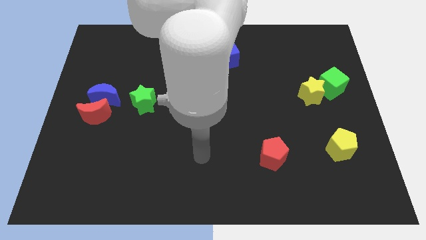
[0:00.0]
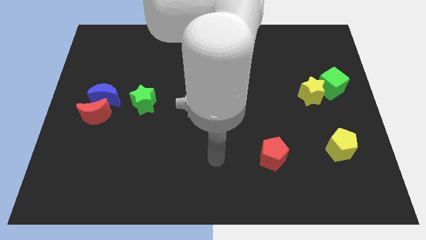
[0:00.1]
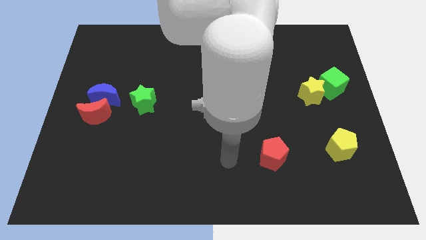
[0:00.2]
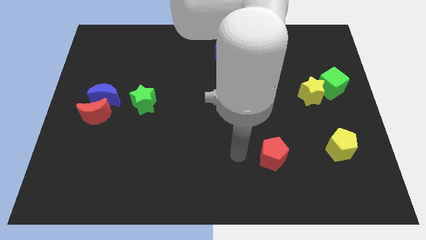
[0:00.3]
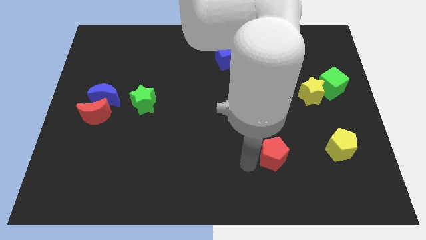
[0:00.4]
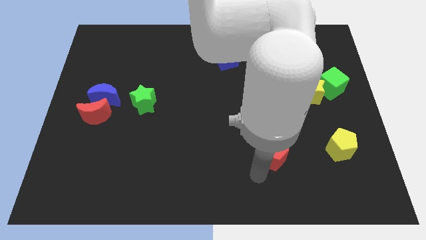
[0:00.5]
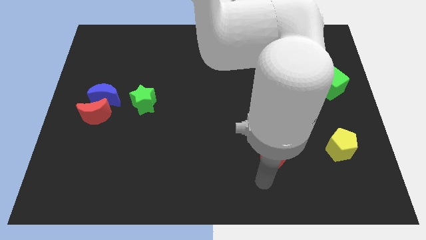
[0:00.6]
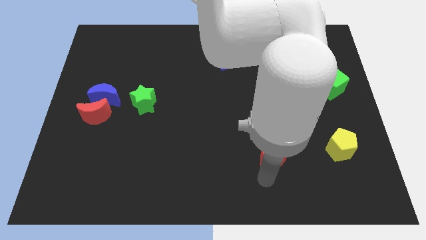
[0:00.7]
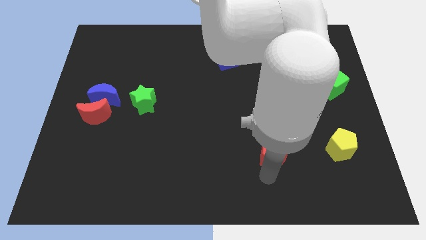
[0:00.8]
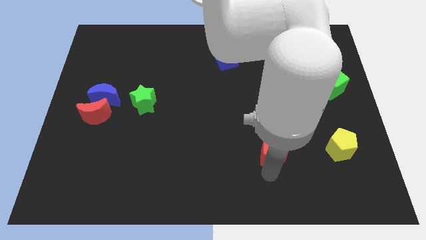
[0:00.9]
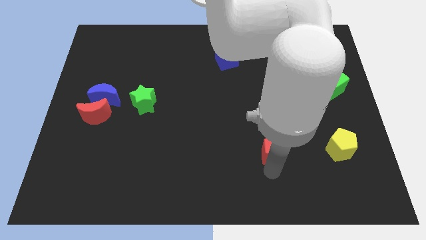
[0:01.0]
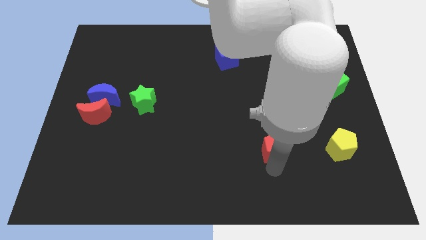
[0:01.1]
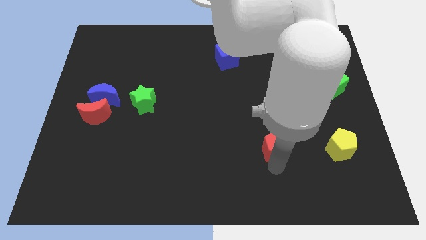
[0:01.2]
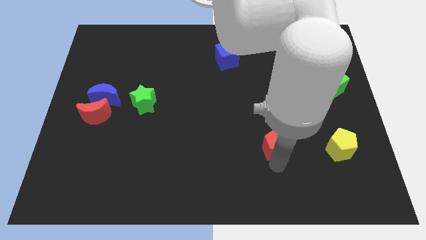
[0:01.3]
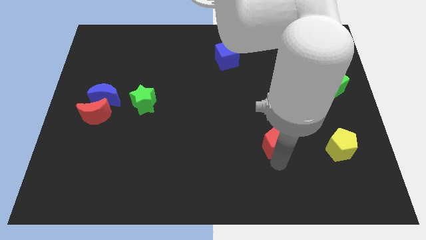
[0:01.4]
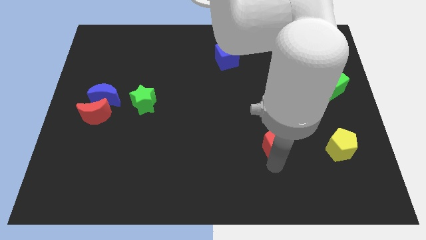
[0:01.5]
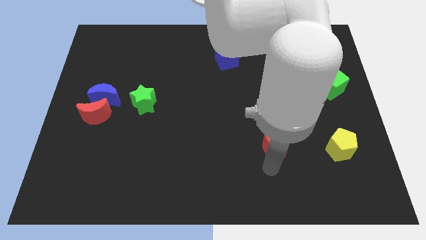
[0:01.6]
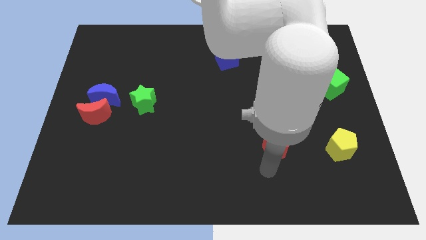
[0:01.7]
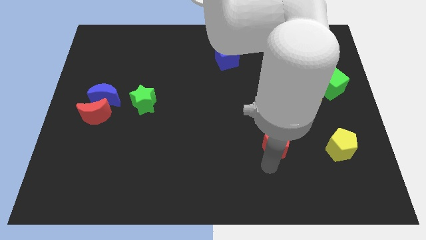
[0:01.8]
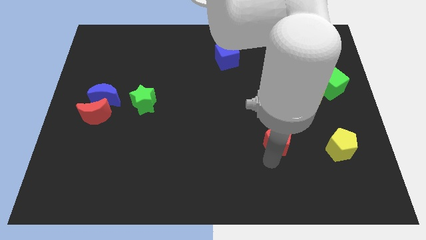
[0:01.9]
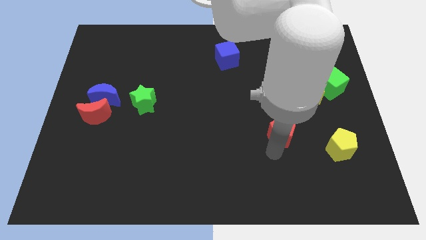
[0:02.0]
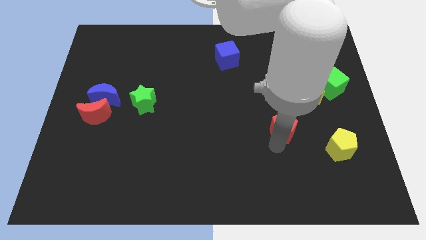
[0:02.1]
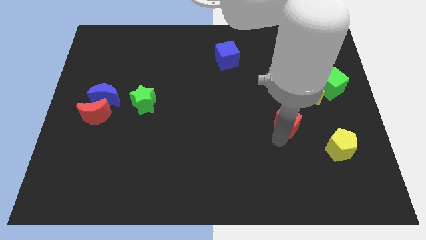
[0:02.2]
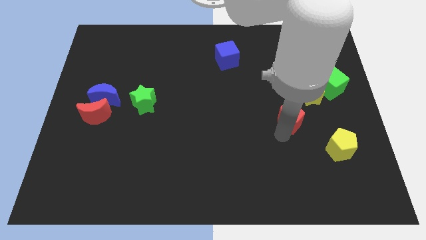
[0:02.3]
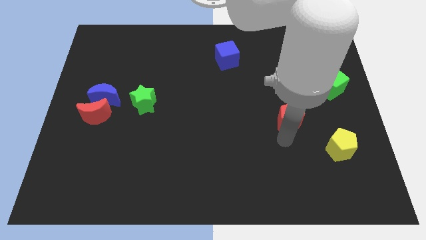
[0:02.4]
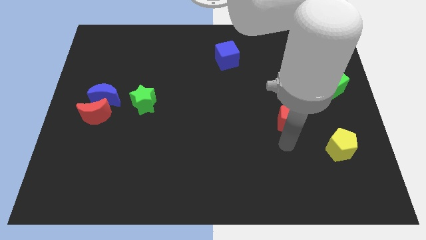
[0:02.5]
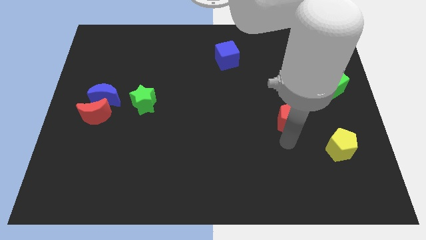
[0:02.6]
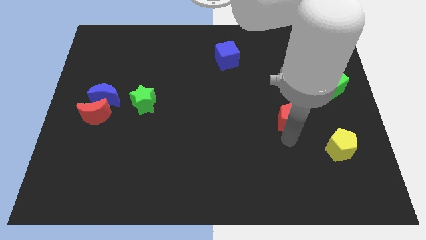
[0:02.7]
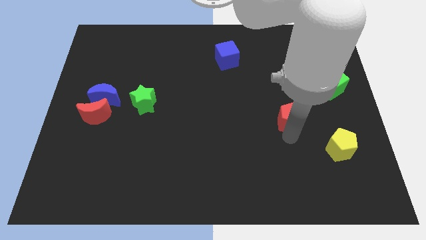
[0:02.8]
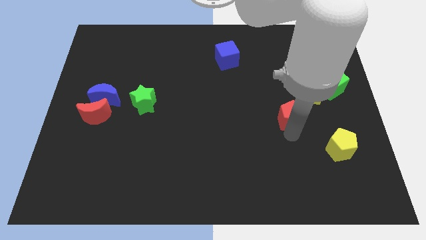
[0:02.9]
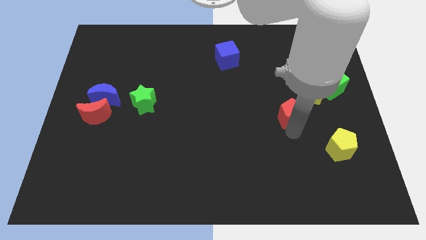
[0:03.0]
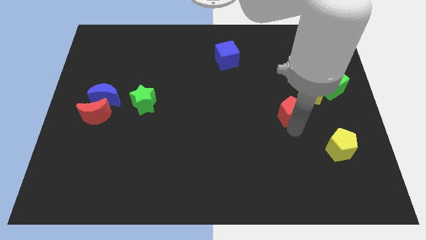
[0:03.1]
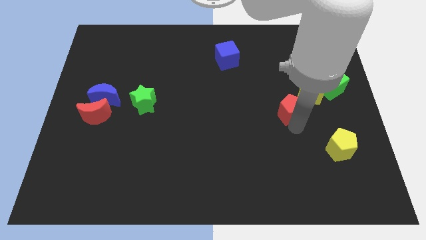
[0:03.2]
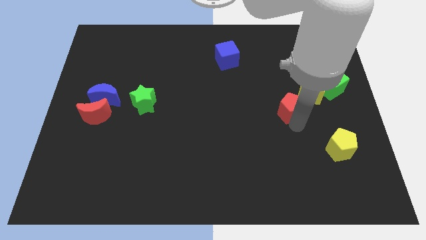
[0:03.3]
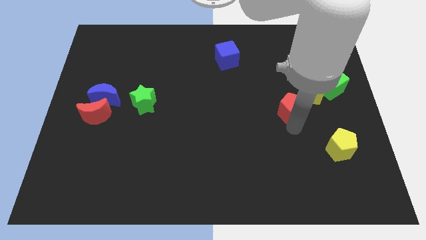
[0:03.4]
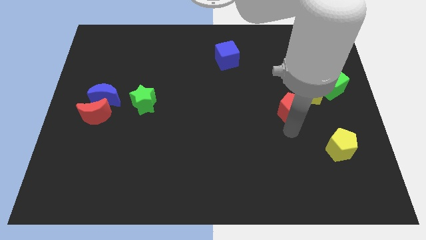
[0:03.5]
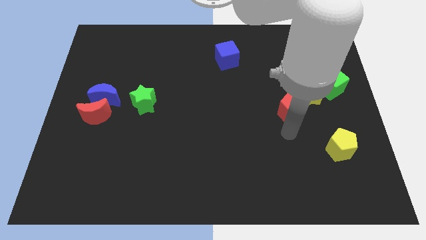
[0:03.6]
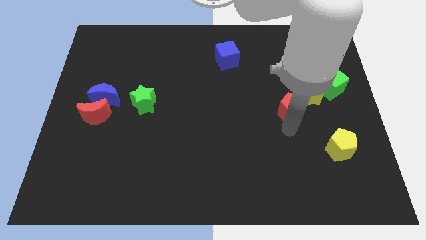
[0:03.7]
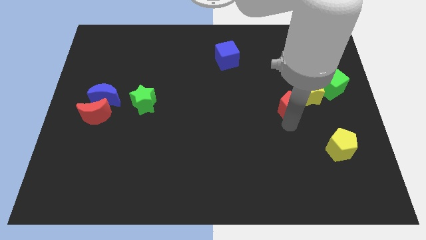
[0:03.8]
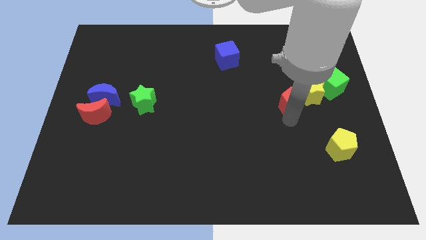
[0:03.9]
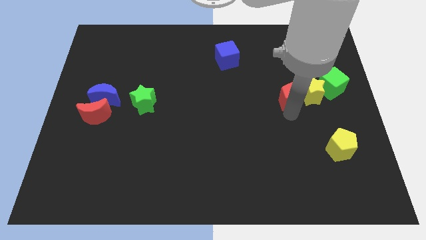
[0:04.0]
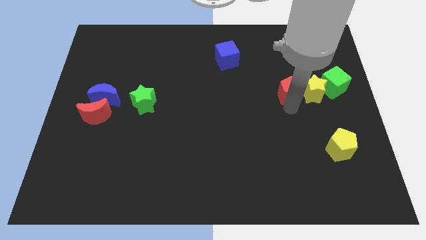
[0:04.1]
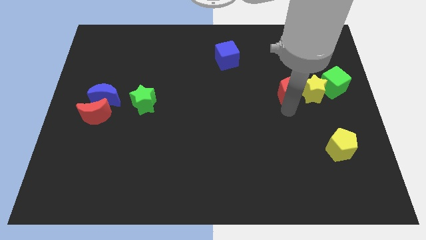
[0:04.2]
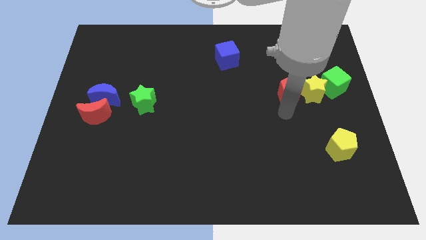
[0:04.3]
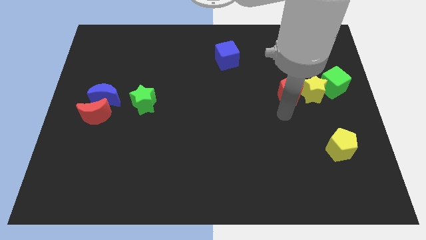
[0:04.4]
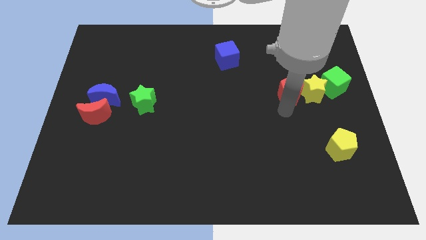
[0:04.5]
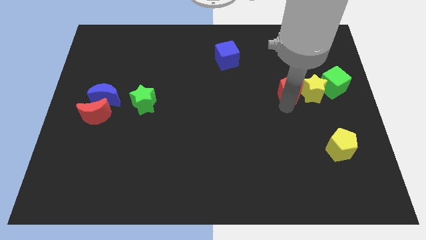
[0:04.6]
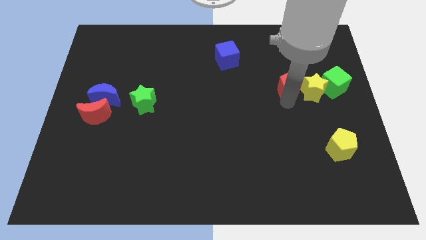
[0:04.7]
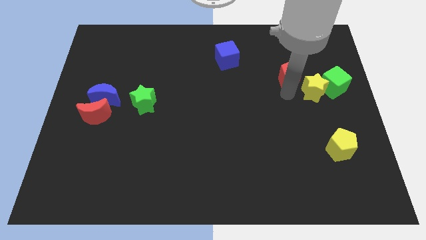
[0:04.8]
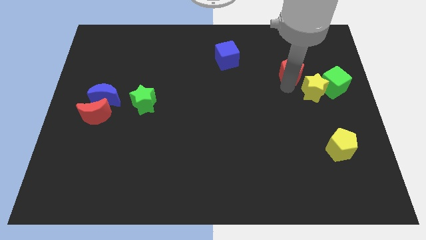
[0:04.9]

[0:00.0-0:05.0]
push the red pentagon to the top of the yellow star

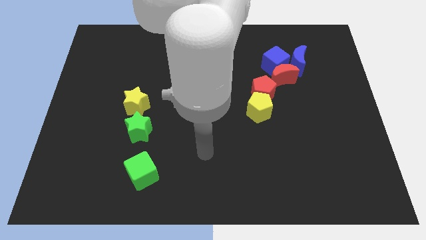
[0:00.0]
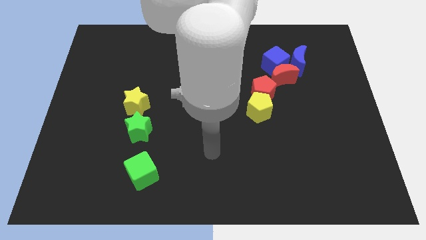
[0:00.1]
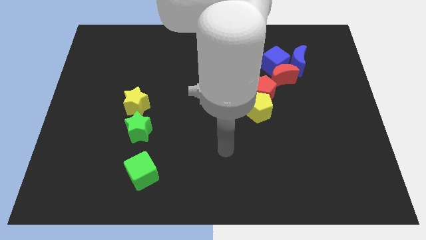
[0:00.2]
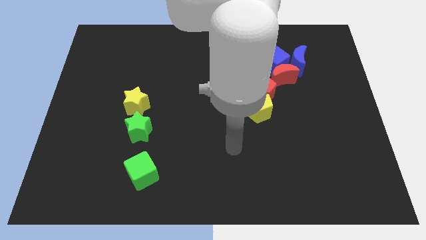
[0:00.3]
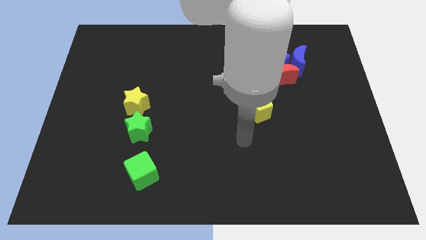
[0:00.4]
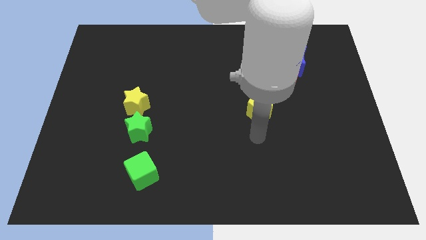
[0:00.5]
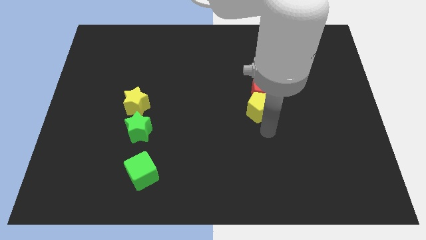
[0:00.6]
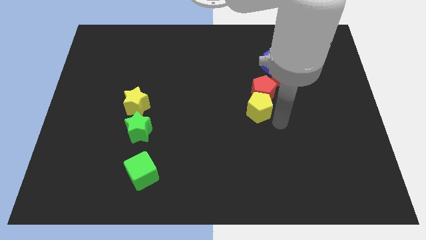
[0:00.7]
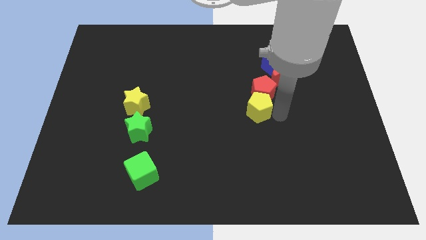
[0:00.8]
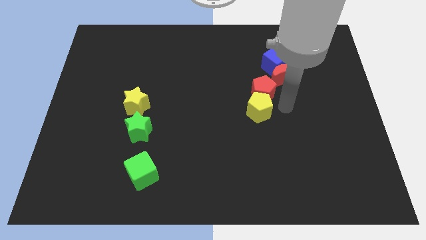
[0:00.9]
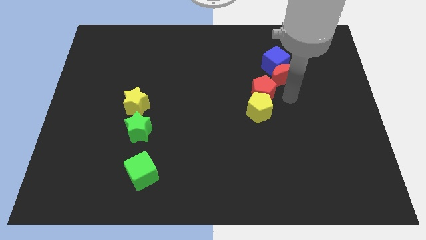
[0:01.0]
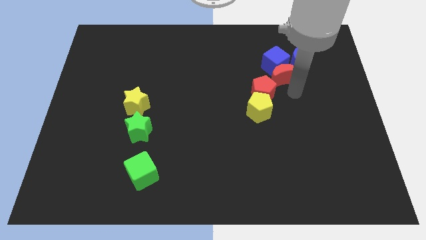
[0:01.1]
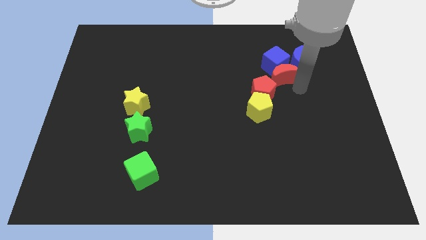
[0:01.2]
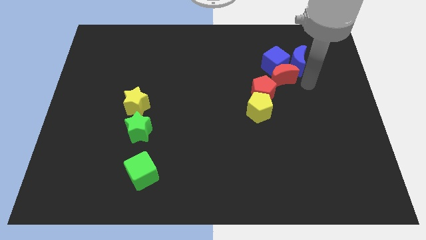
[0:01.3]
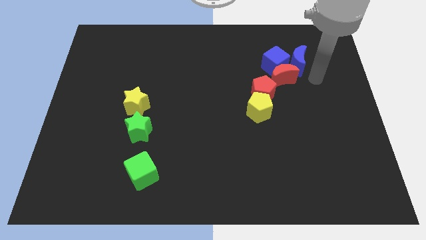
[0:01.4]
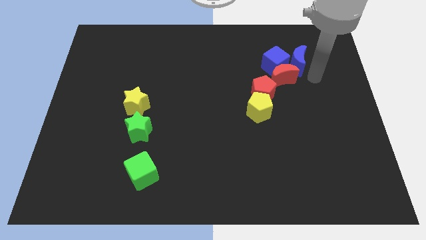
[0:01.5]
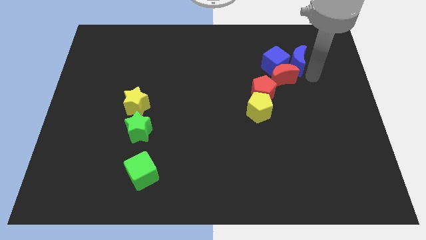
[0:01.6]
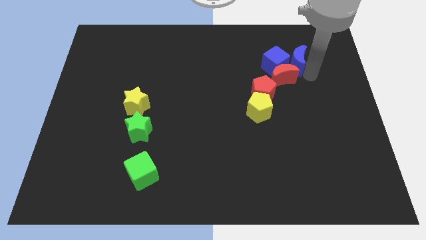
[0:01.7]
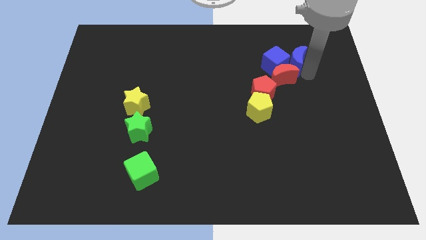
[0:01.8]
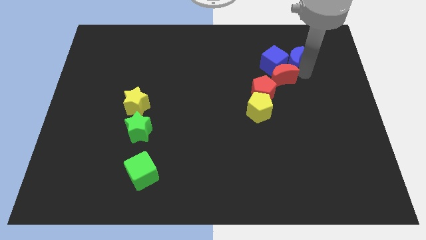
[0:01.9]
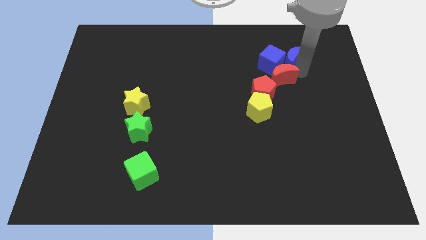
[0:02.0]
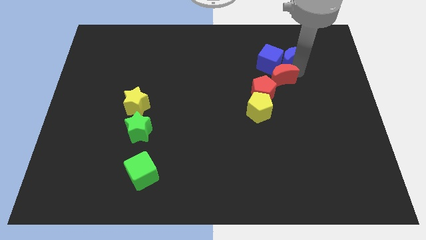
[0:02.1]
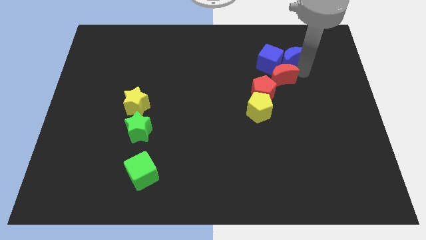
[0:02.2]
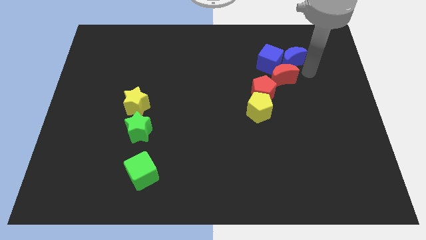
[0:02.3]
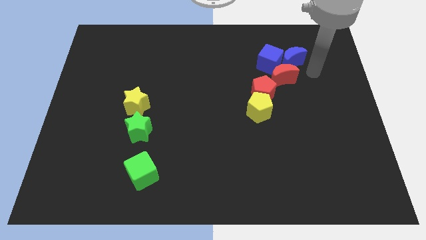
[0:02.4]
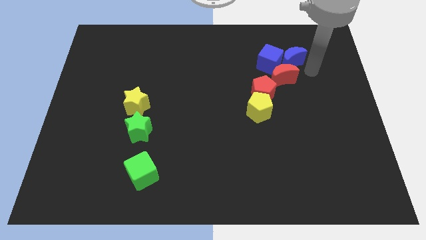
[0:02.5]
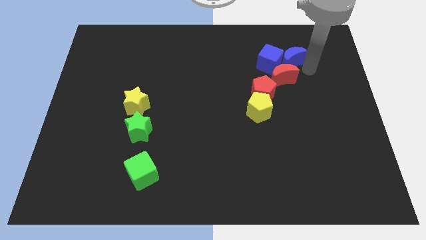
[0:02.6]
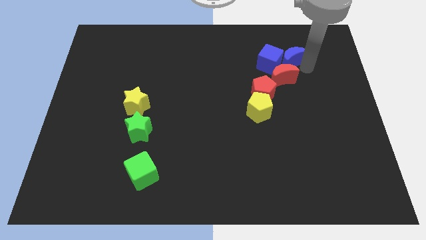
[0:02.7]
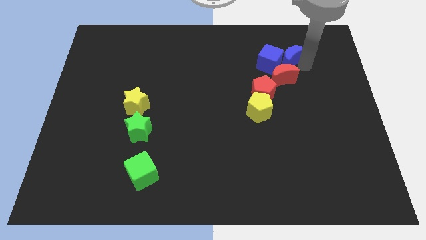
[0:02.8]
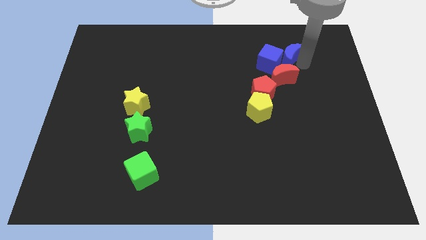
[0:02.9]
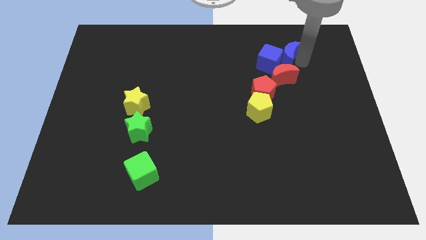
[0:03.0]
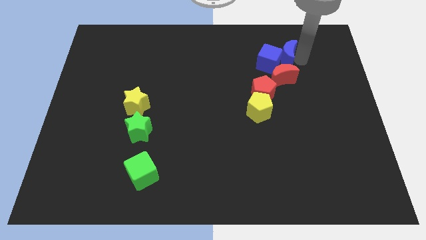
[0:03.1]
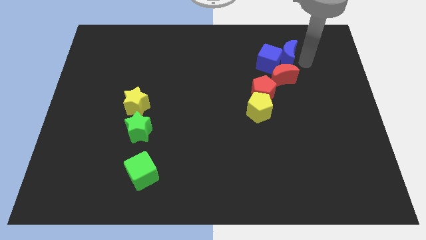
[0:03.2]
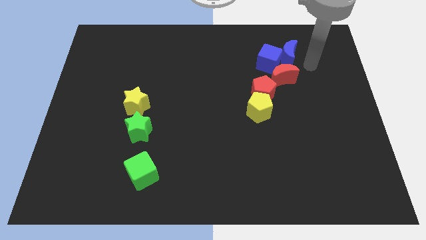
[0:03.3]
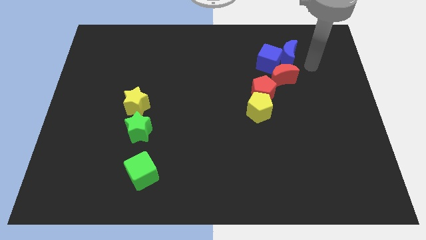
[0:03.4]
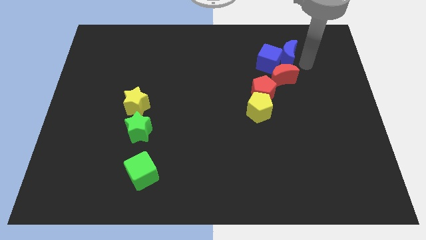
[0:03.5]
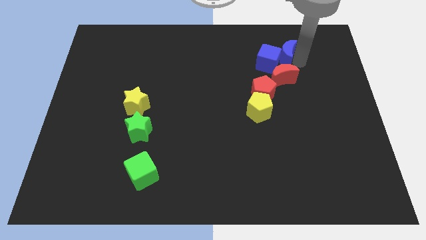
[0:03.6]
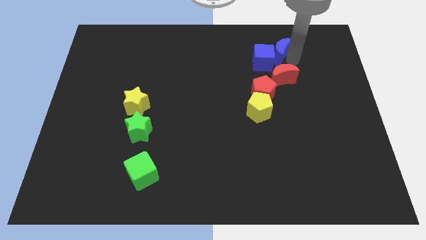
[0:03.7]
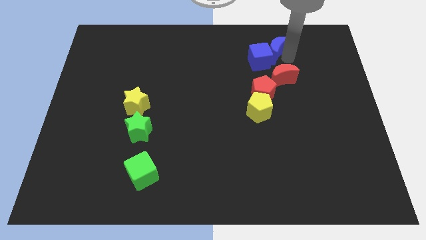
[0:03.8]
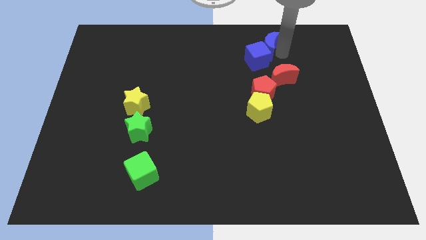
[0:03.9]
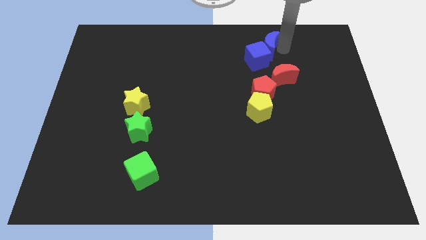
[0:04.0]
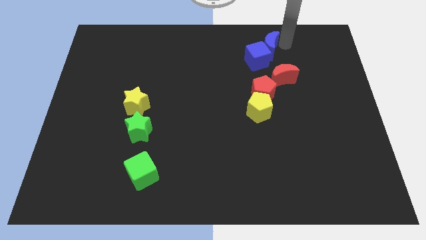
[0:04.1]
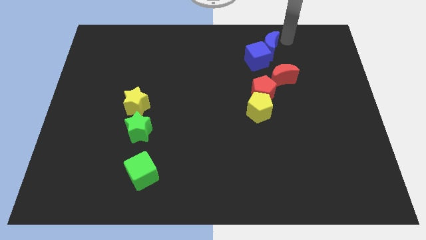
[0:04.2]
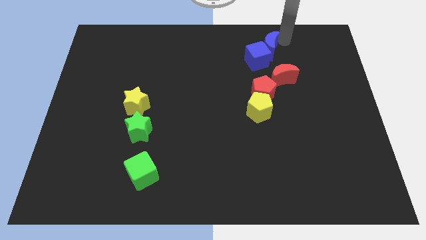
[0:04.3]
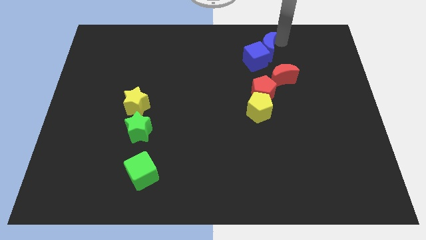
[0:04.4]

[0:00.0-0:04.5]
push the blue moon above the red pentagon
